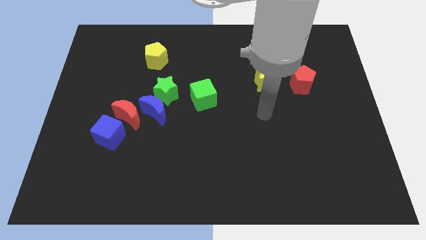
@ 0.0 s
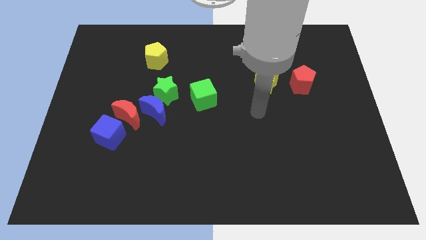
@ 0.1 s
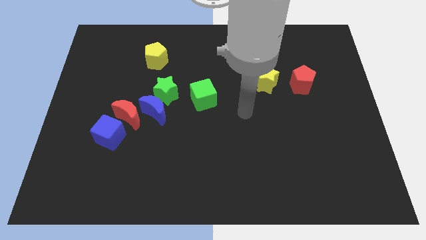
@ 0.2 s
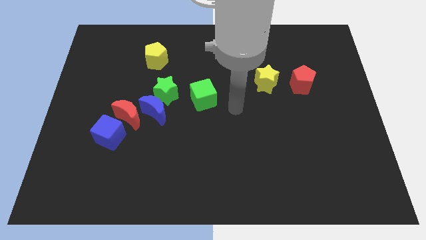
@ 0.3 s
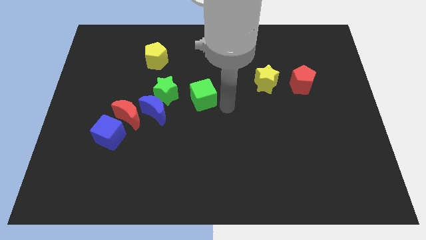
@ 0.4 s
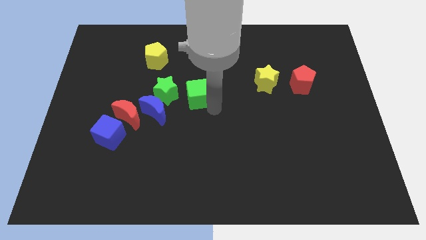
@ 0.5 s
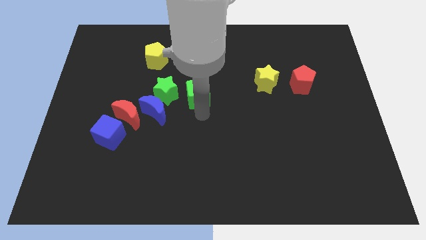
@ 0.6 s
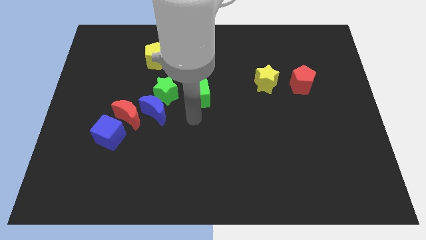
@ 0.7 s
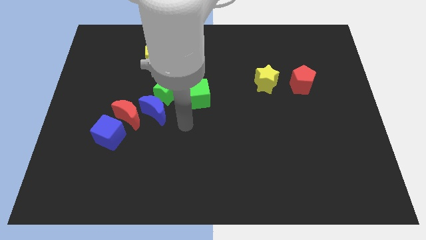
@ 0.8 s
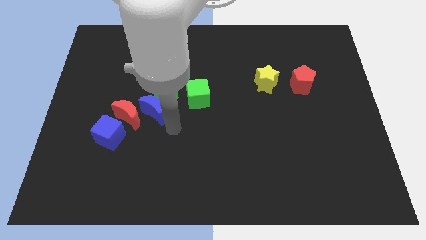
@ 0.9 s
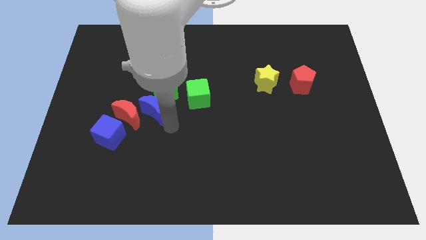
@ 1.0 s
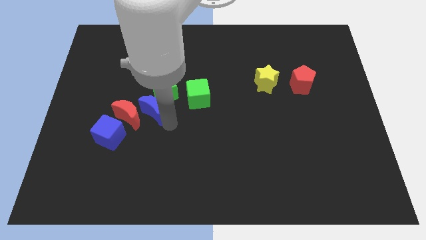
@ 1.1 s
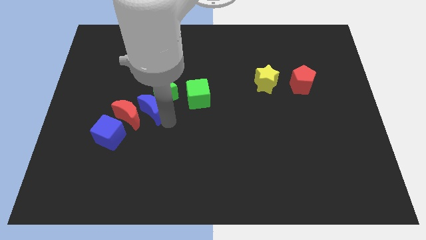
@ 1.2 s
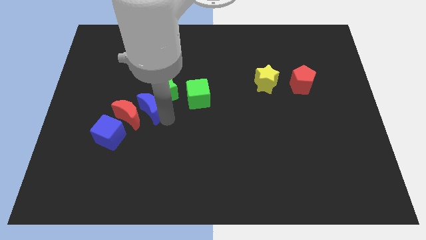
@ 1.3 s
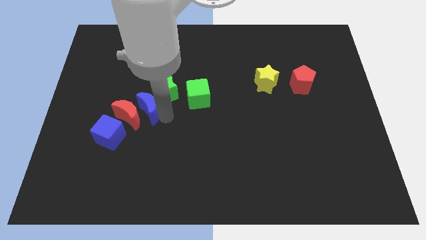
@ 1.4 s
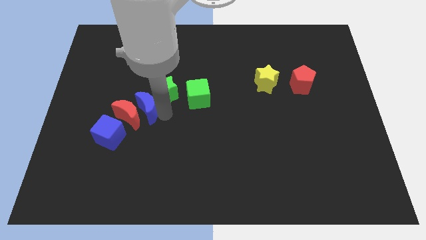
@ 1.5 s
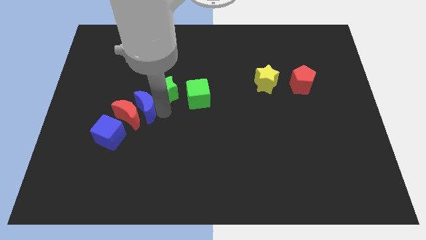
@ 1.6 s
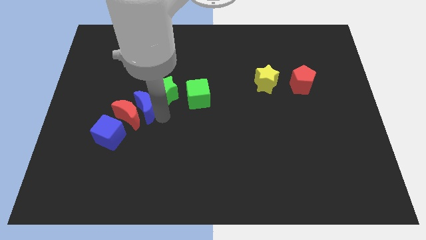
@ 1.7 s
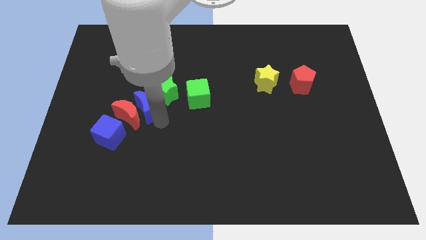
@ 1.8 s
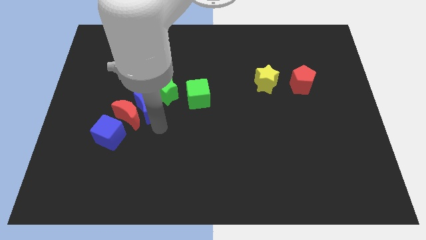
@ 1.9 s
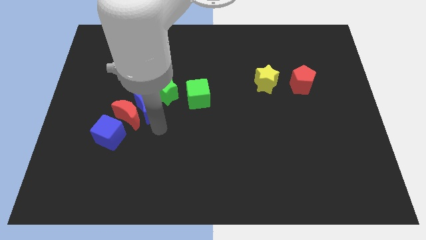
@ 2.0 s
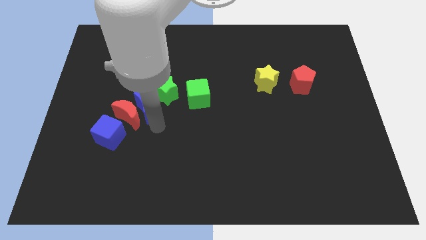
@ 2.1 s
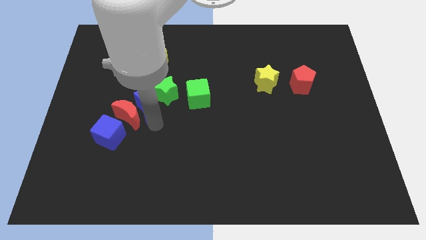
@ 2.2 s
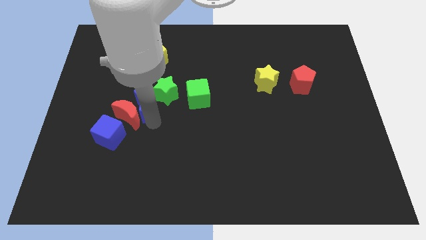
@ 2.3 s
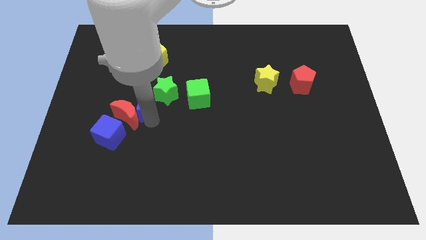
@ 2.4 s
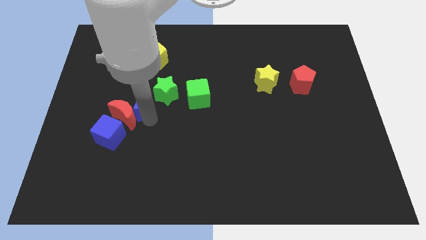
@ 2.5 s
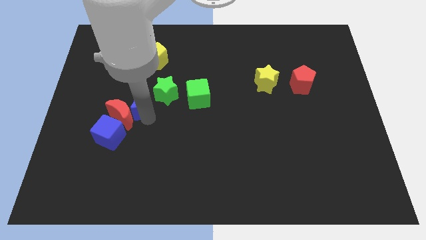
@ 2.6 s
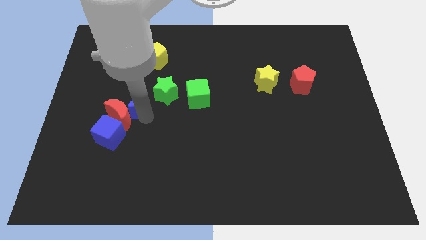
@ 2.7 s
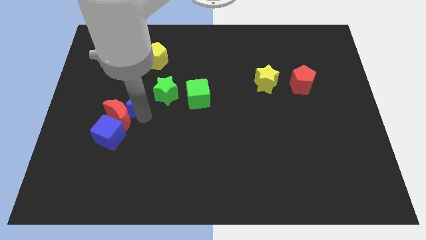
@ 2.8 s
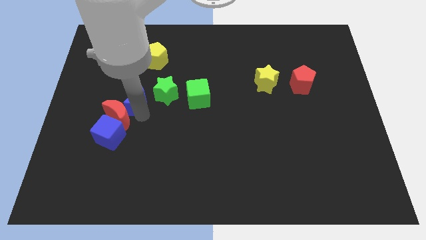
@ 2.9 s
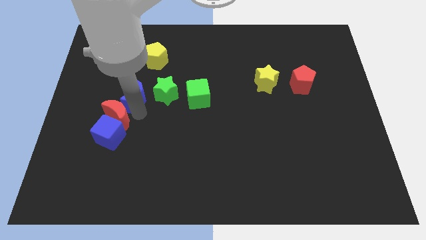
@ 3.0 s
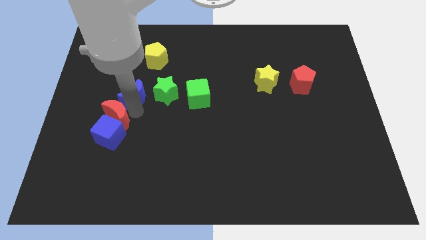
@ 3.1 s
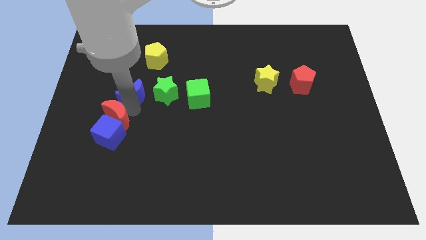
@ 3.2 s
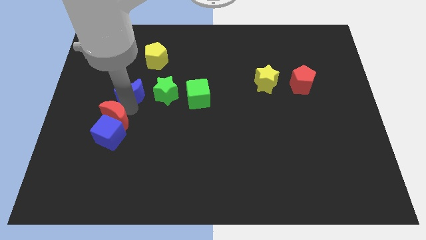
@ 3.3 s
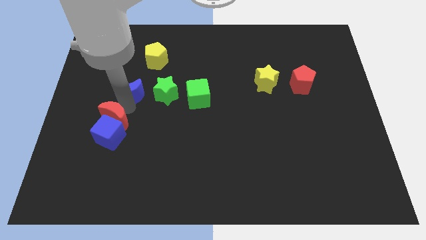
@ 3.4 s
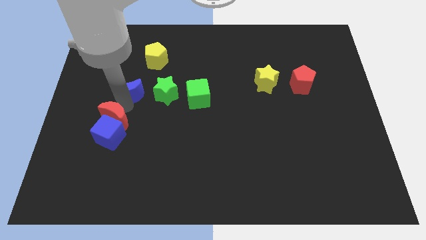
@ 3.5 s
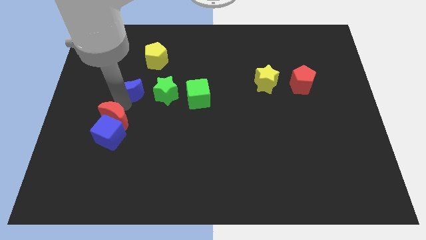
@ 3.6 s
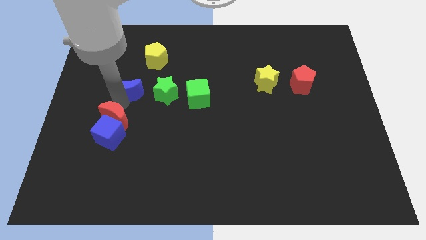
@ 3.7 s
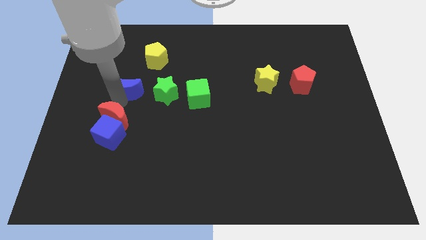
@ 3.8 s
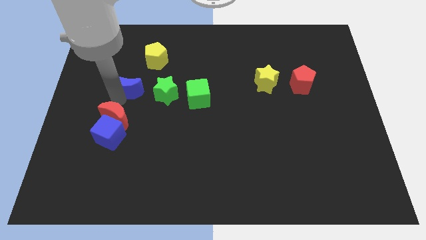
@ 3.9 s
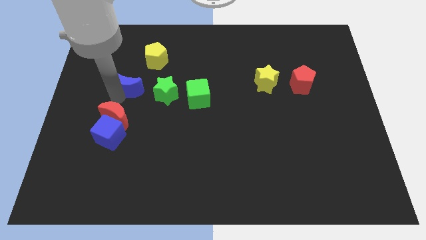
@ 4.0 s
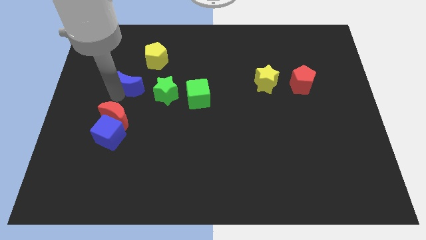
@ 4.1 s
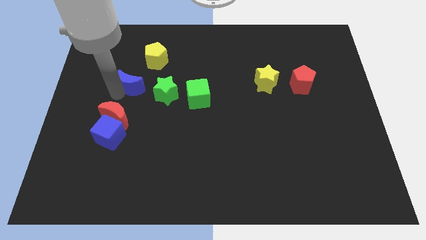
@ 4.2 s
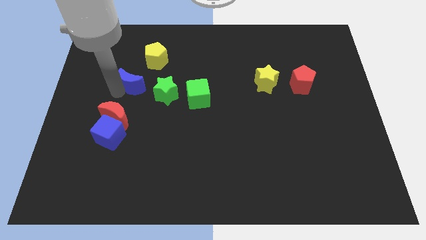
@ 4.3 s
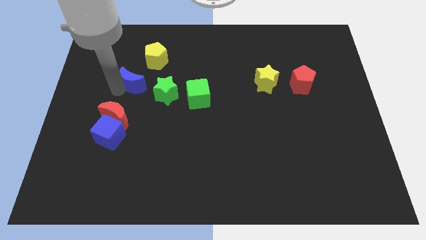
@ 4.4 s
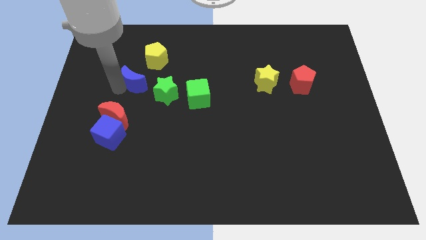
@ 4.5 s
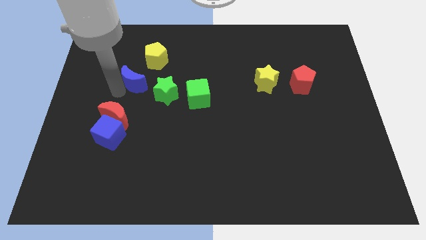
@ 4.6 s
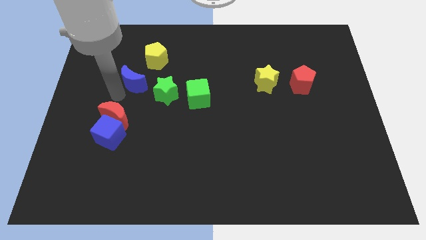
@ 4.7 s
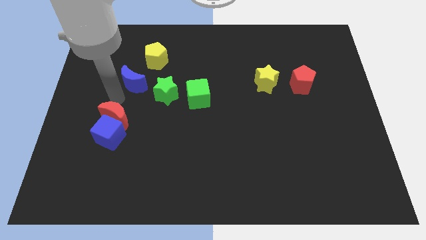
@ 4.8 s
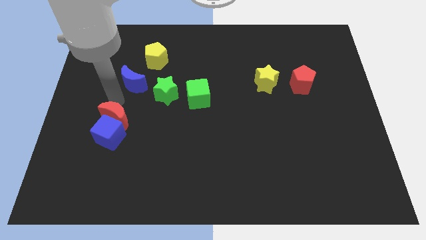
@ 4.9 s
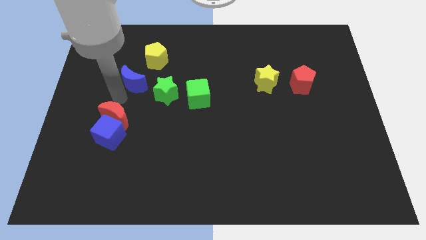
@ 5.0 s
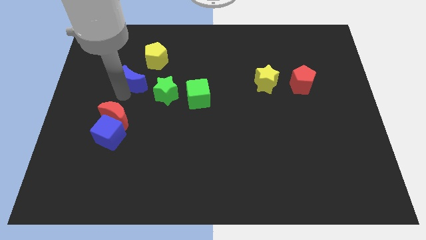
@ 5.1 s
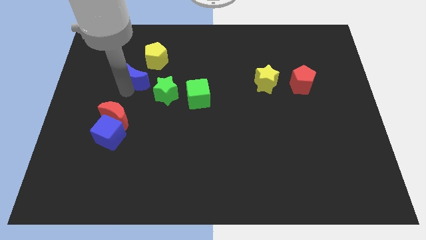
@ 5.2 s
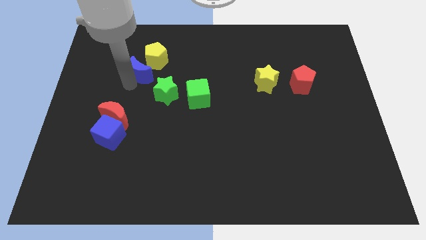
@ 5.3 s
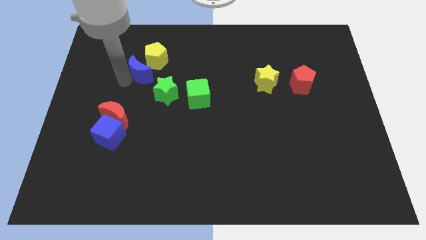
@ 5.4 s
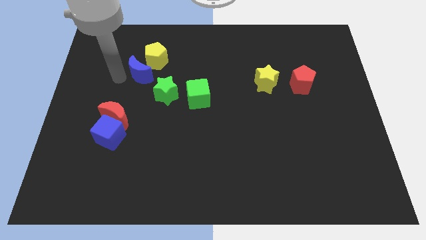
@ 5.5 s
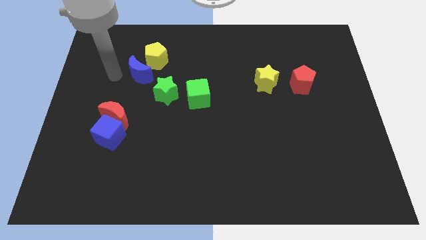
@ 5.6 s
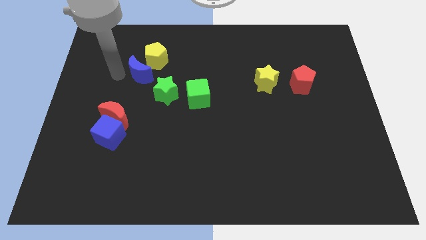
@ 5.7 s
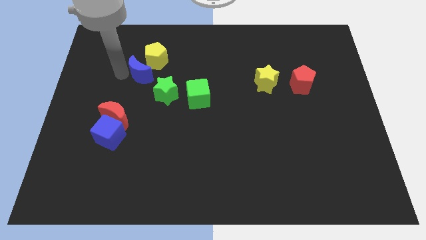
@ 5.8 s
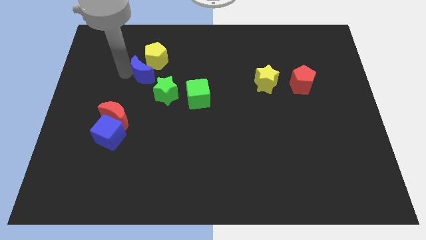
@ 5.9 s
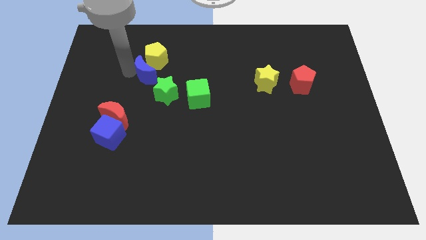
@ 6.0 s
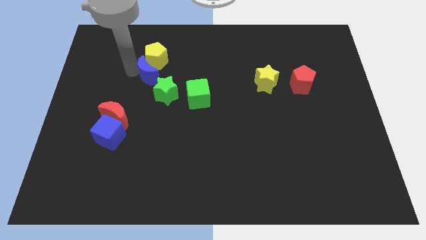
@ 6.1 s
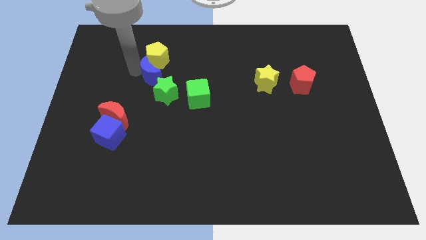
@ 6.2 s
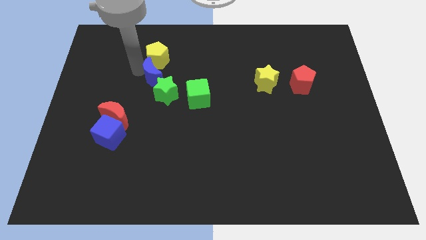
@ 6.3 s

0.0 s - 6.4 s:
put the blue moon to the bottom right side of the yellow pentagon

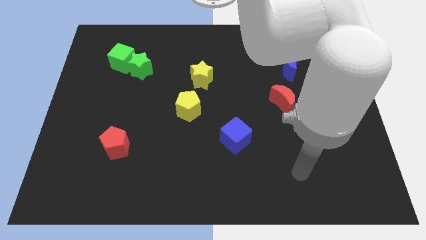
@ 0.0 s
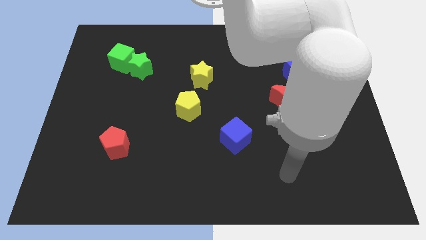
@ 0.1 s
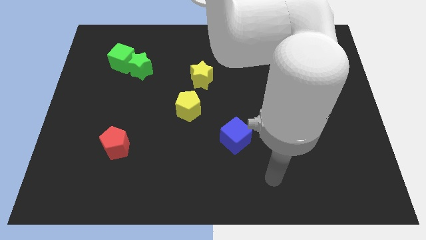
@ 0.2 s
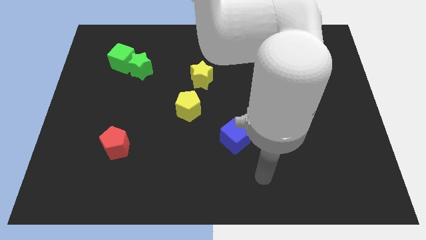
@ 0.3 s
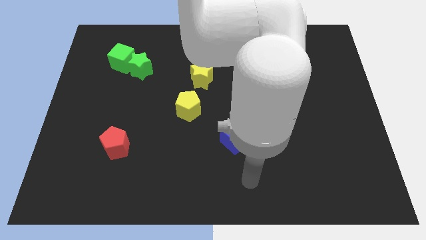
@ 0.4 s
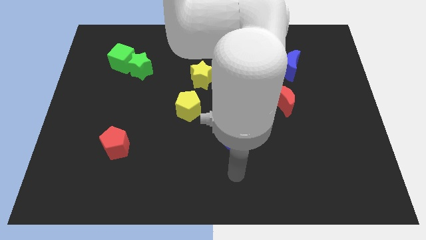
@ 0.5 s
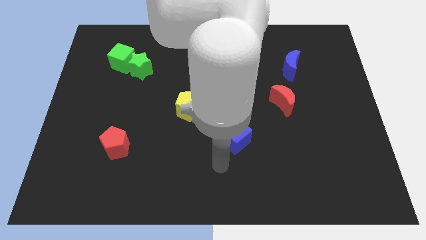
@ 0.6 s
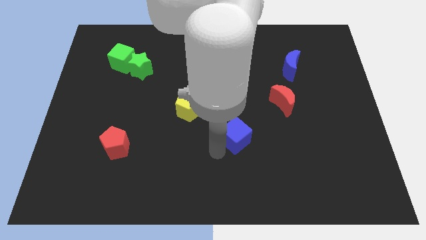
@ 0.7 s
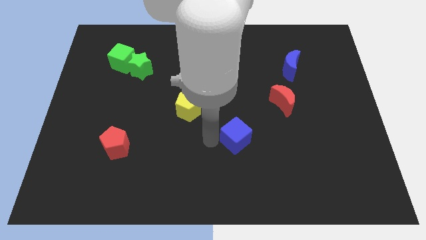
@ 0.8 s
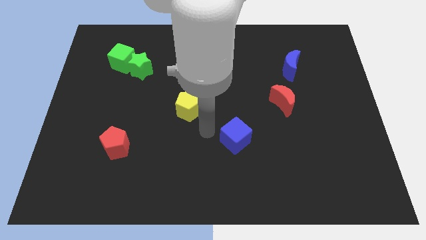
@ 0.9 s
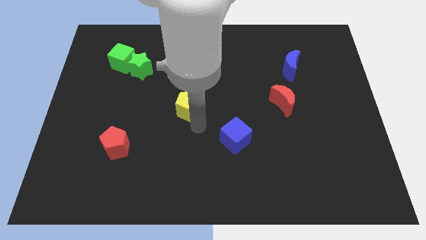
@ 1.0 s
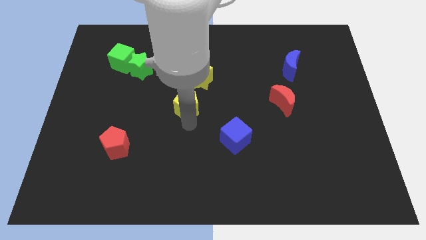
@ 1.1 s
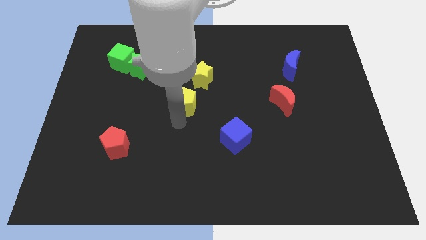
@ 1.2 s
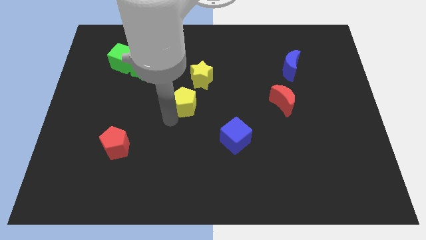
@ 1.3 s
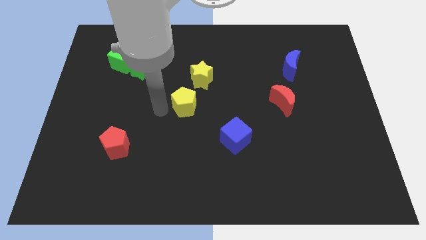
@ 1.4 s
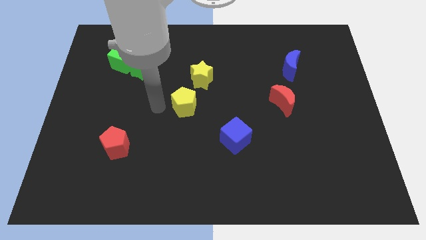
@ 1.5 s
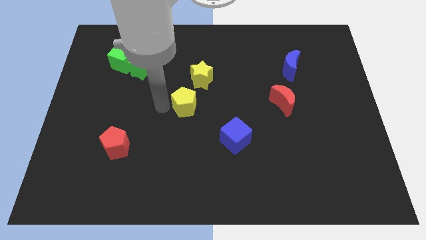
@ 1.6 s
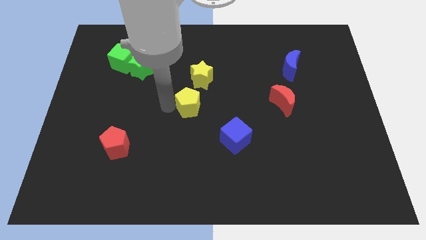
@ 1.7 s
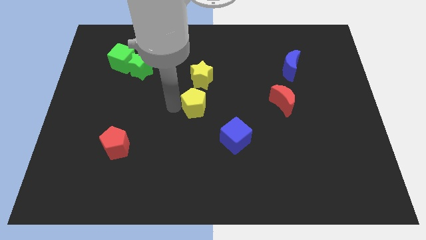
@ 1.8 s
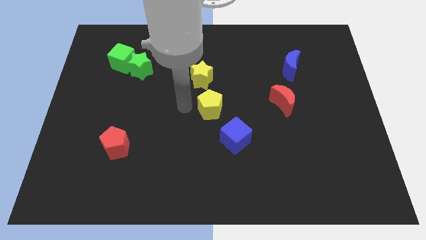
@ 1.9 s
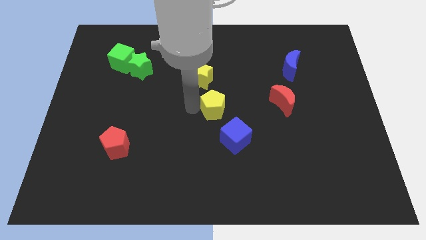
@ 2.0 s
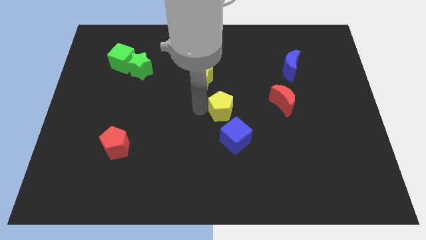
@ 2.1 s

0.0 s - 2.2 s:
put the yellow pentagon just left of the red moon
